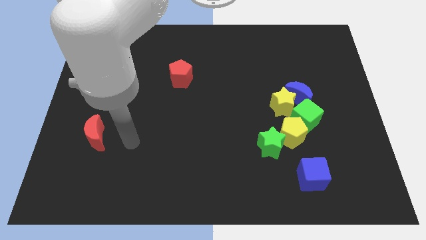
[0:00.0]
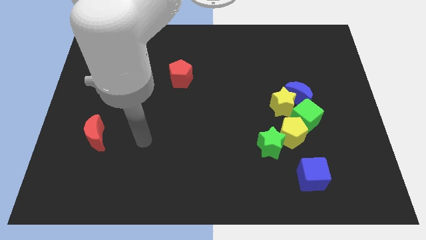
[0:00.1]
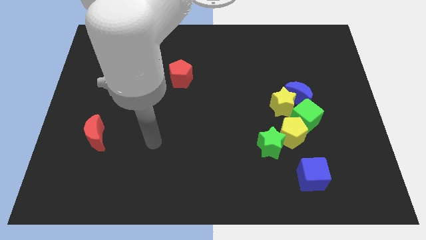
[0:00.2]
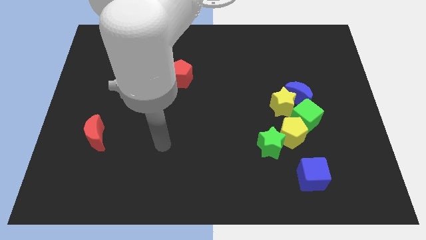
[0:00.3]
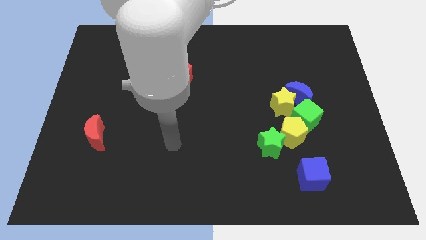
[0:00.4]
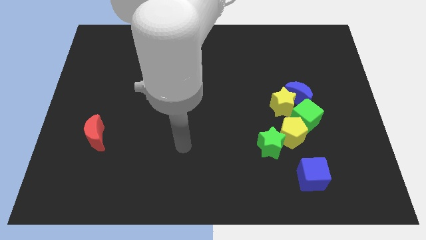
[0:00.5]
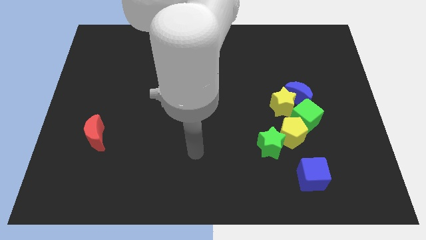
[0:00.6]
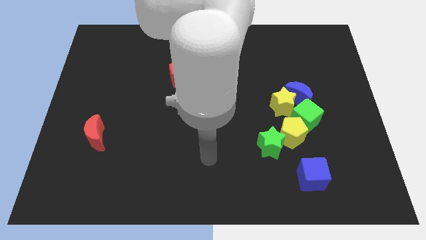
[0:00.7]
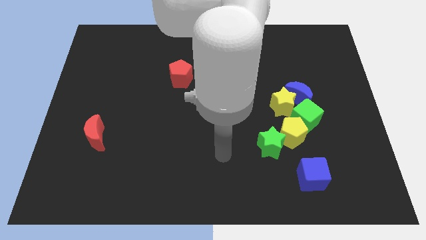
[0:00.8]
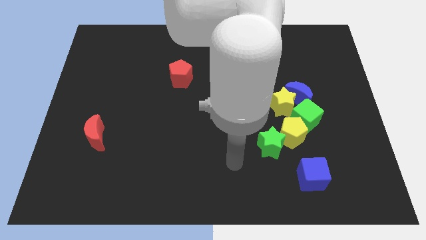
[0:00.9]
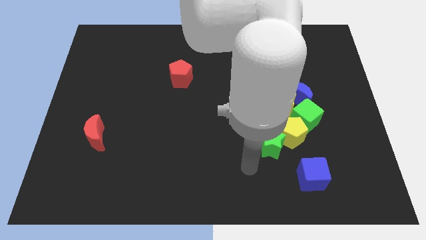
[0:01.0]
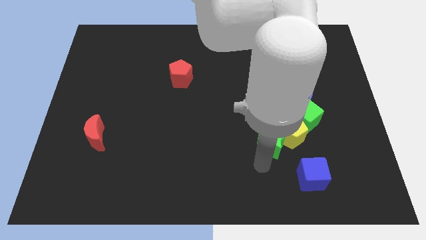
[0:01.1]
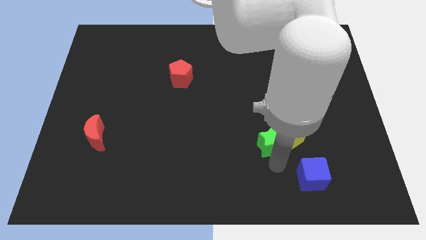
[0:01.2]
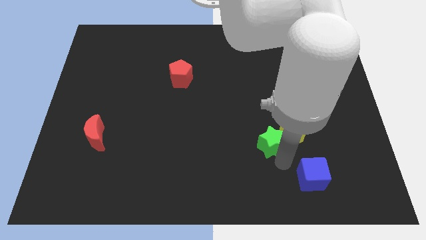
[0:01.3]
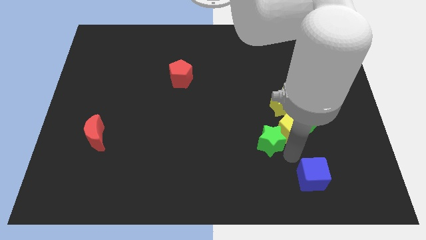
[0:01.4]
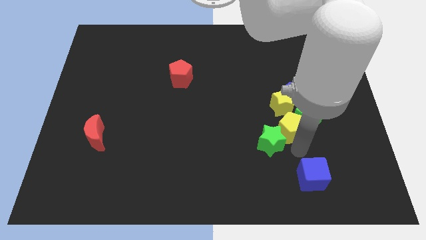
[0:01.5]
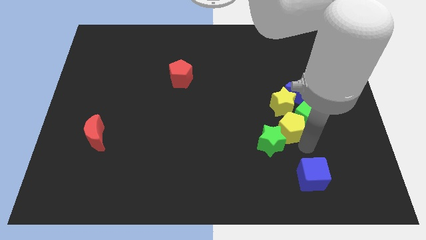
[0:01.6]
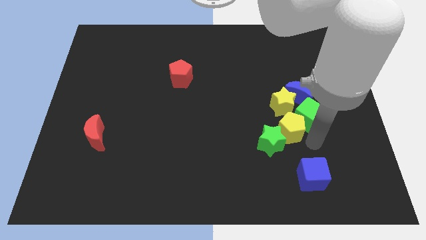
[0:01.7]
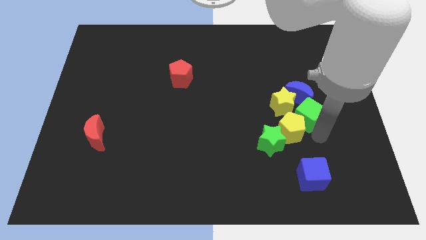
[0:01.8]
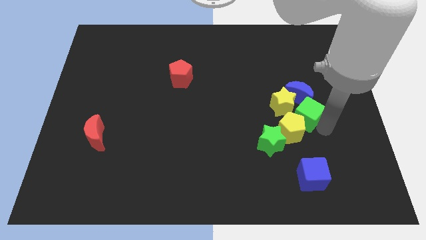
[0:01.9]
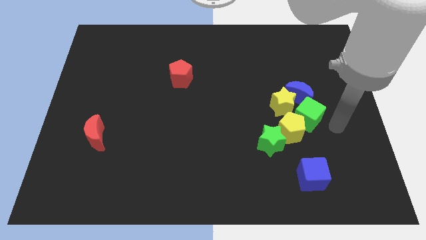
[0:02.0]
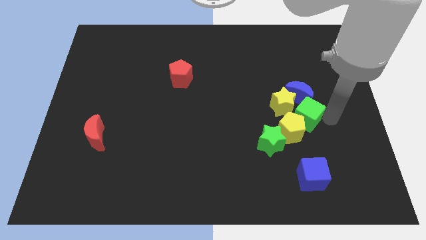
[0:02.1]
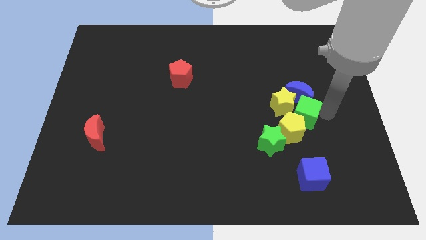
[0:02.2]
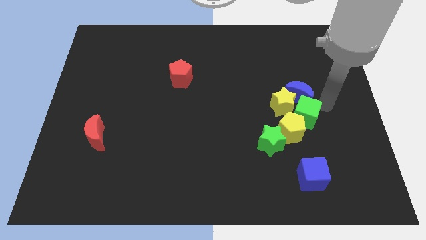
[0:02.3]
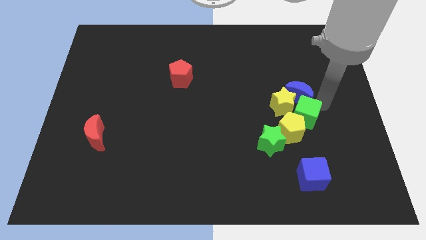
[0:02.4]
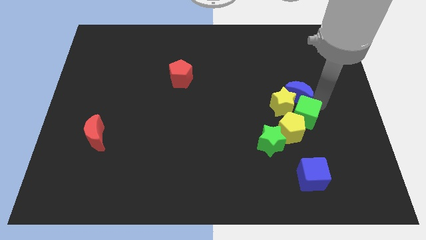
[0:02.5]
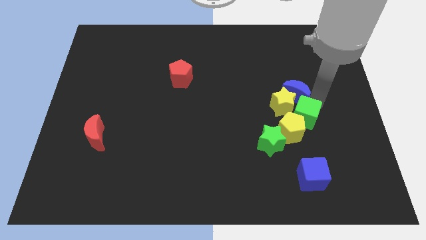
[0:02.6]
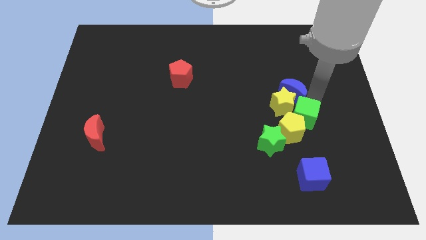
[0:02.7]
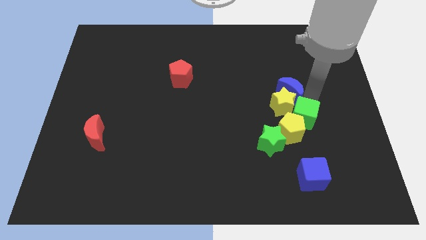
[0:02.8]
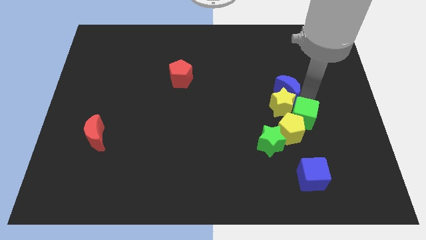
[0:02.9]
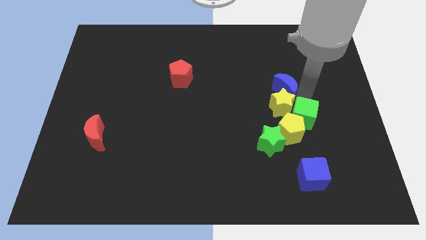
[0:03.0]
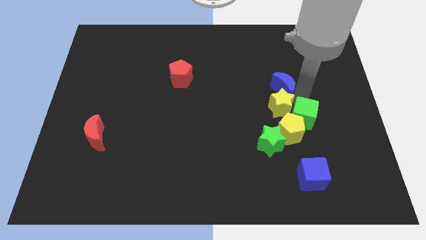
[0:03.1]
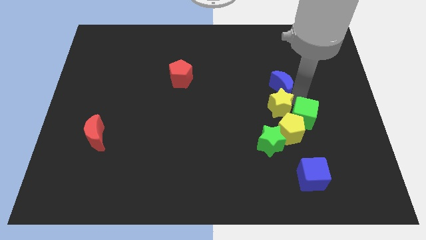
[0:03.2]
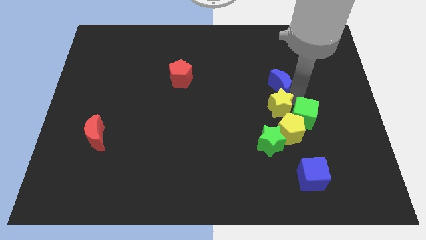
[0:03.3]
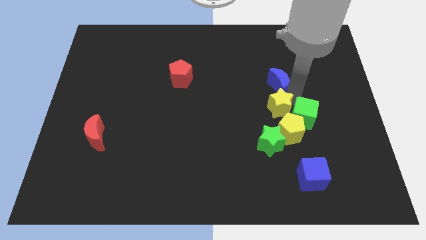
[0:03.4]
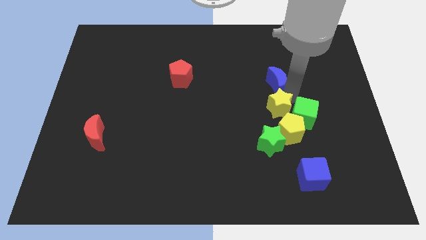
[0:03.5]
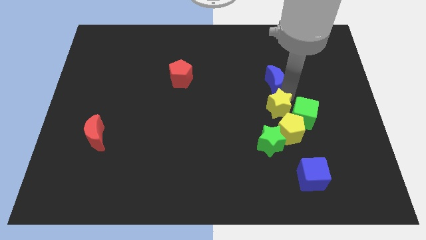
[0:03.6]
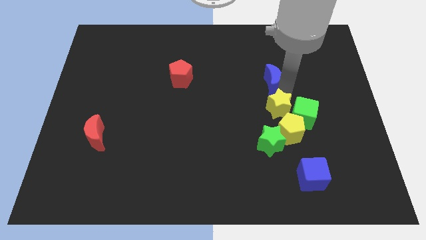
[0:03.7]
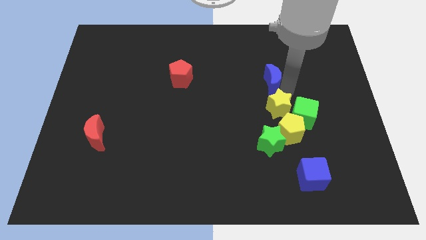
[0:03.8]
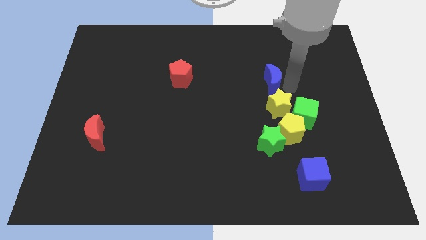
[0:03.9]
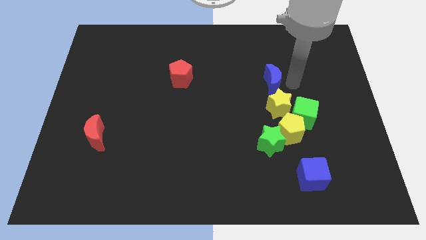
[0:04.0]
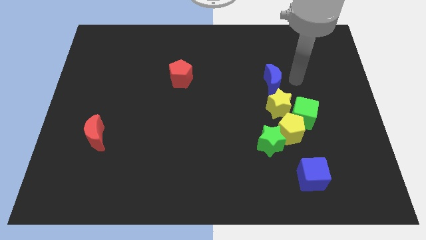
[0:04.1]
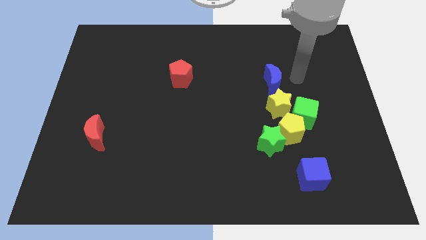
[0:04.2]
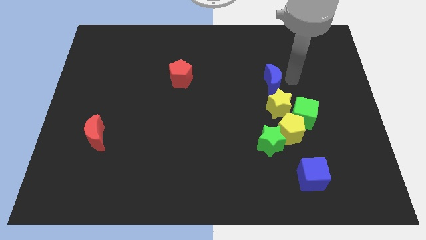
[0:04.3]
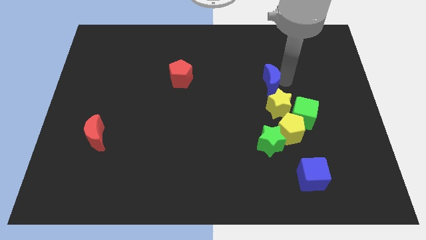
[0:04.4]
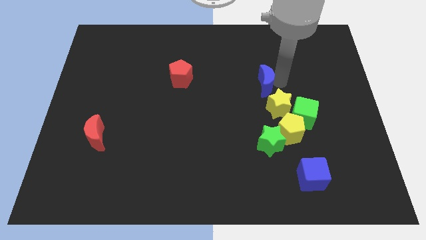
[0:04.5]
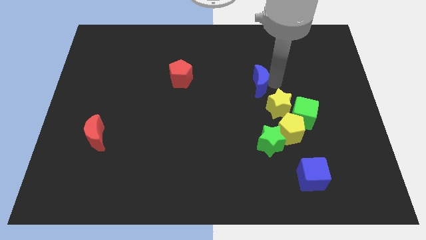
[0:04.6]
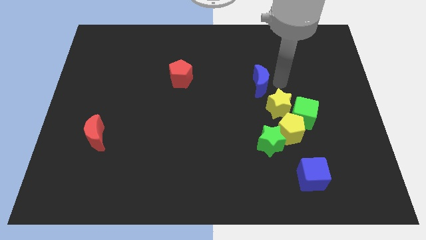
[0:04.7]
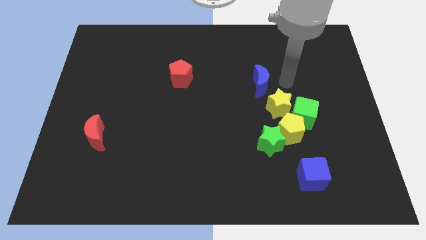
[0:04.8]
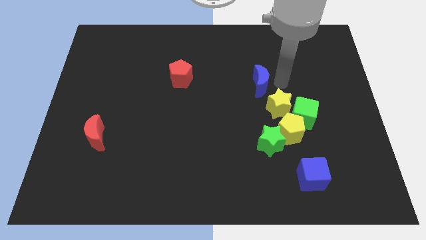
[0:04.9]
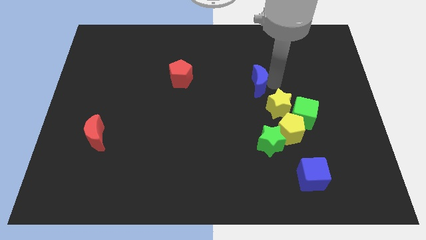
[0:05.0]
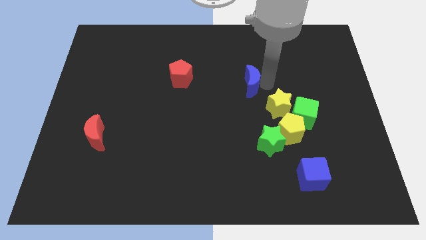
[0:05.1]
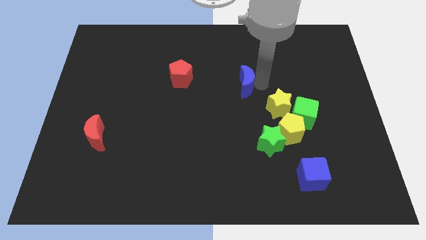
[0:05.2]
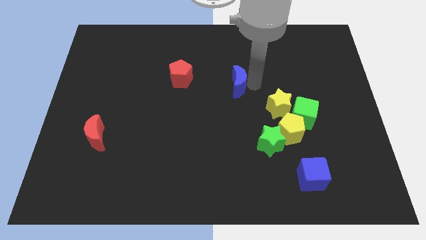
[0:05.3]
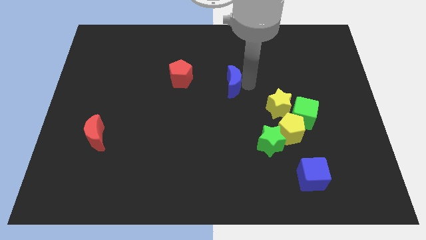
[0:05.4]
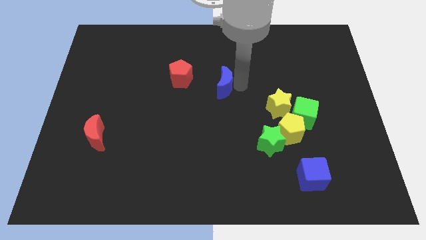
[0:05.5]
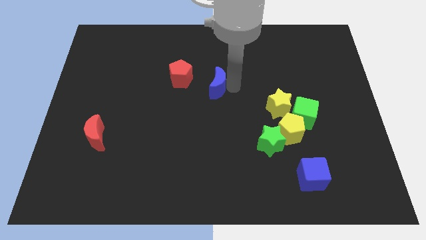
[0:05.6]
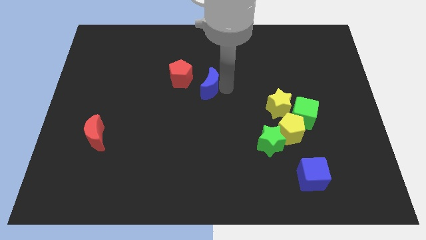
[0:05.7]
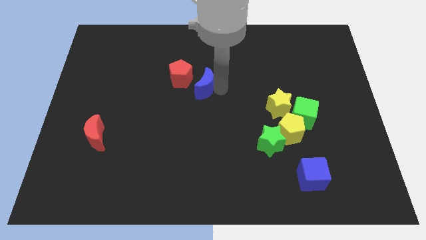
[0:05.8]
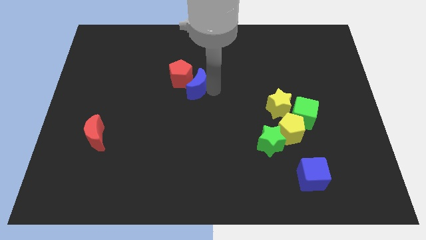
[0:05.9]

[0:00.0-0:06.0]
put the blue moon close to the red pentagon

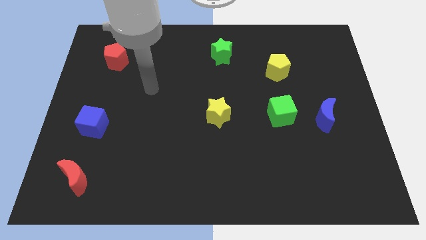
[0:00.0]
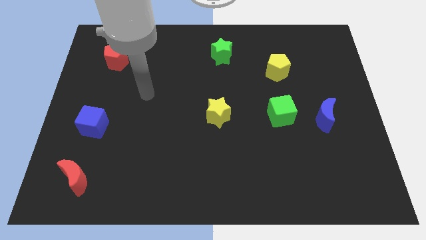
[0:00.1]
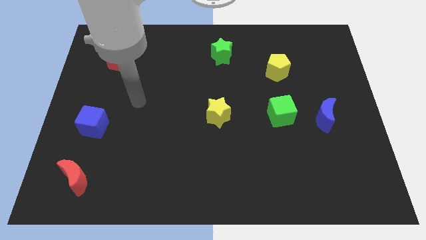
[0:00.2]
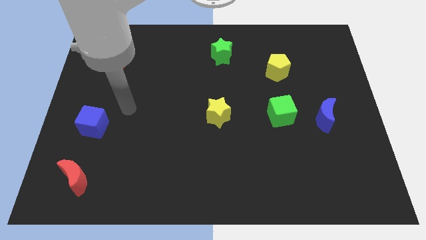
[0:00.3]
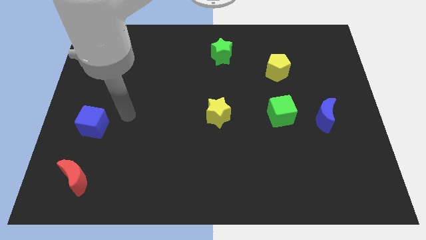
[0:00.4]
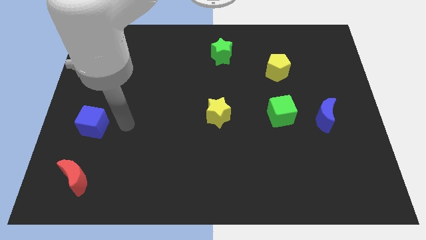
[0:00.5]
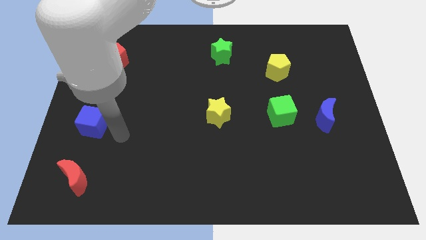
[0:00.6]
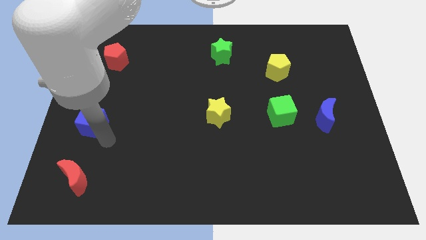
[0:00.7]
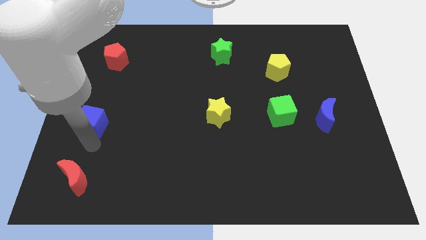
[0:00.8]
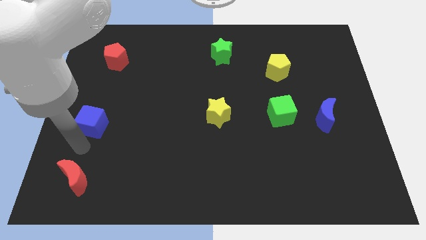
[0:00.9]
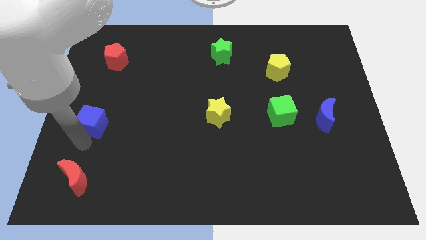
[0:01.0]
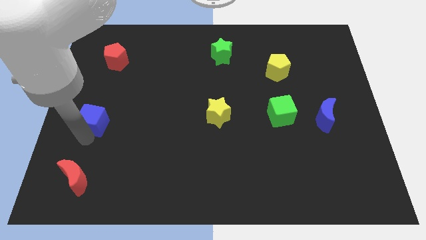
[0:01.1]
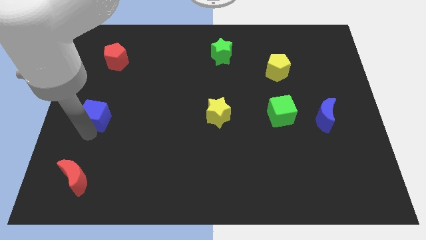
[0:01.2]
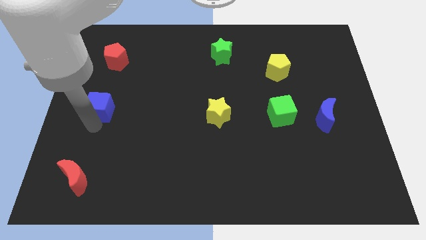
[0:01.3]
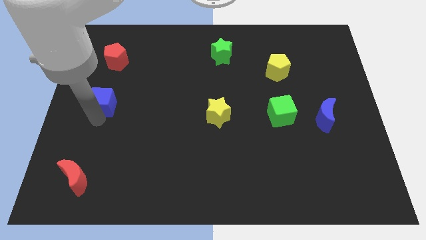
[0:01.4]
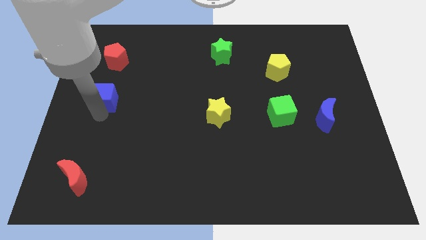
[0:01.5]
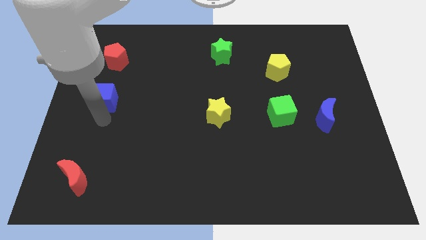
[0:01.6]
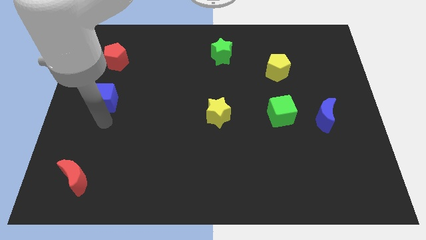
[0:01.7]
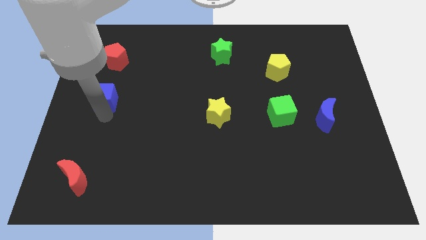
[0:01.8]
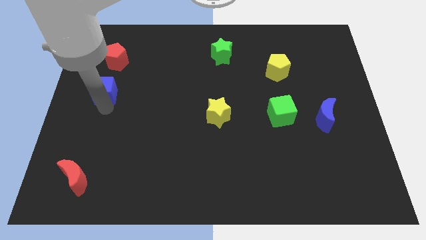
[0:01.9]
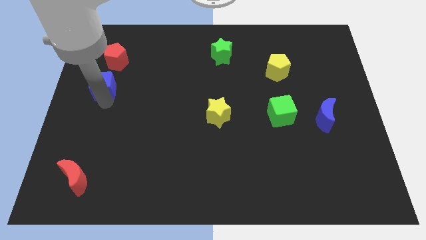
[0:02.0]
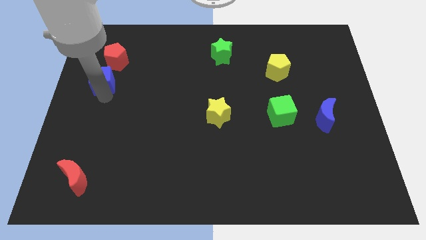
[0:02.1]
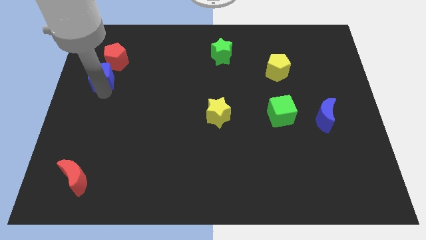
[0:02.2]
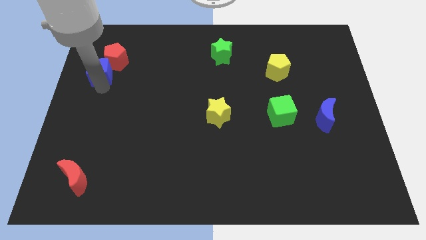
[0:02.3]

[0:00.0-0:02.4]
put the blue cube towards the red pentagon
